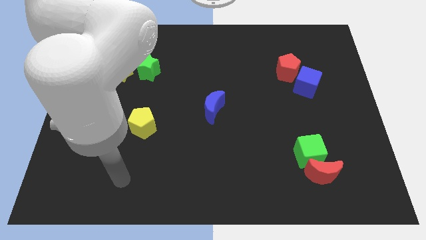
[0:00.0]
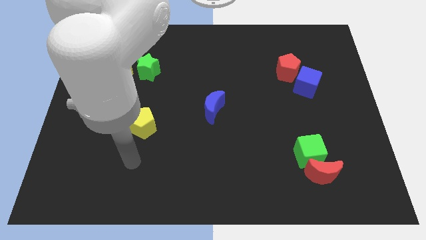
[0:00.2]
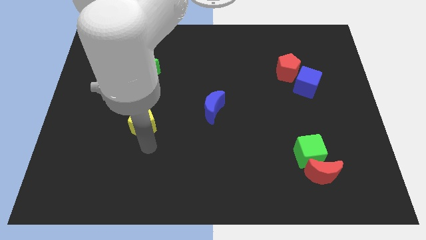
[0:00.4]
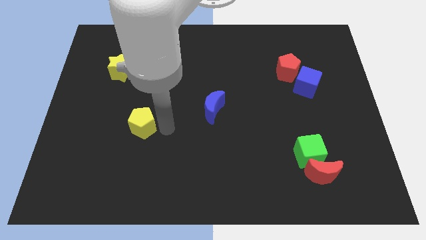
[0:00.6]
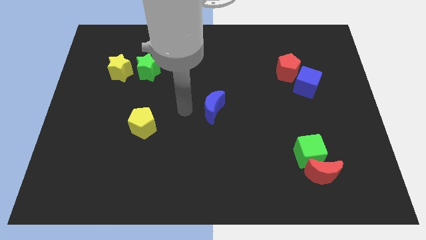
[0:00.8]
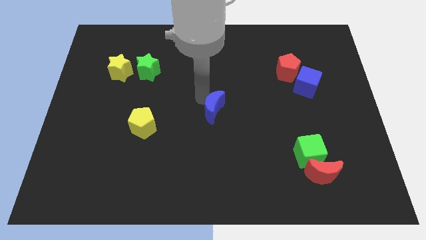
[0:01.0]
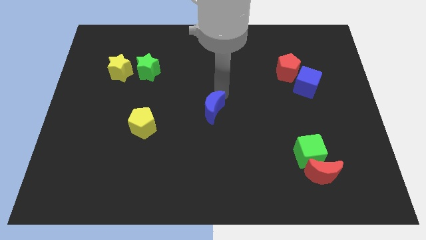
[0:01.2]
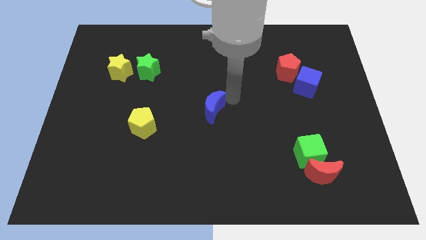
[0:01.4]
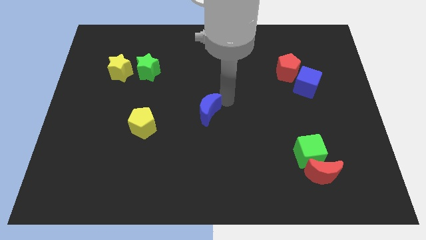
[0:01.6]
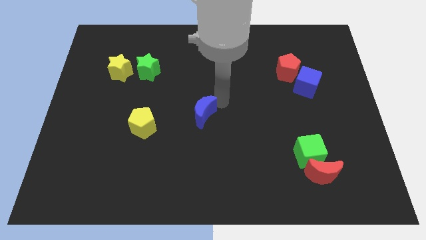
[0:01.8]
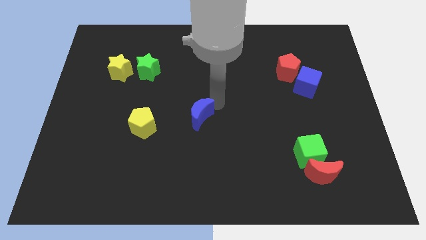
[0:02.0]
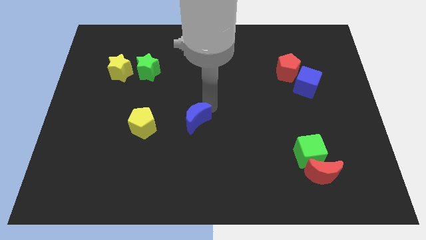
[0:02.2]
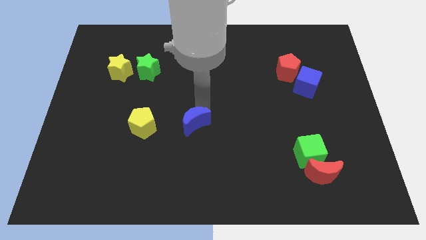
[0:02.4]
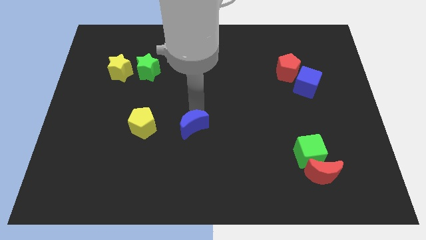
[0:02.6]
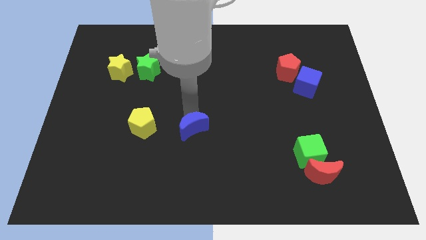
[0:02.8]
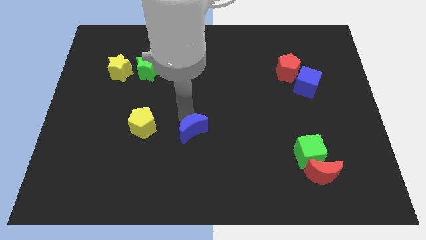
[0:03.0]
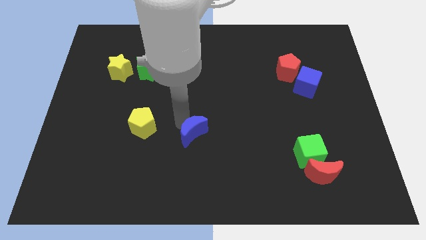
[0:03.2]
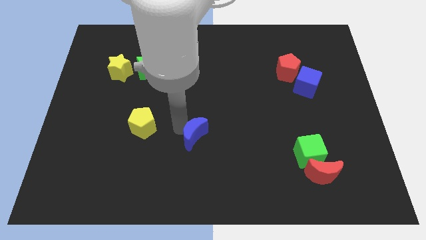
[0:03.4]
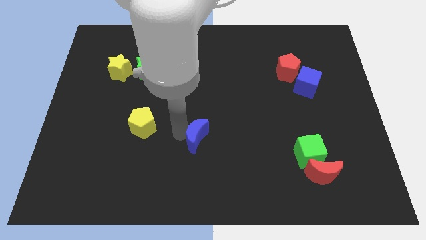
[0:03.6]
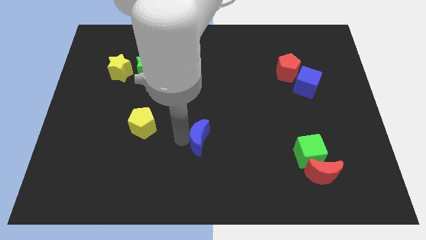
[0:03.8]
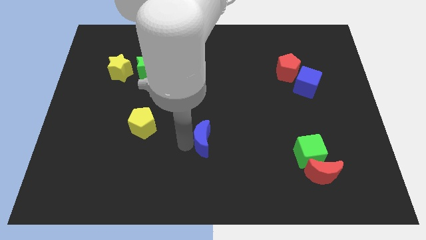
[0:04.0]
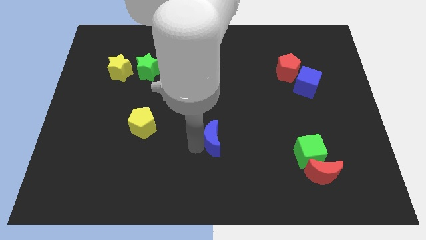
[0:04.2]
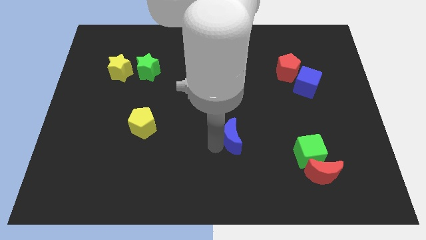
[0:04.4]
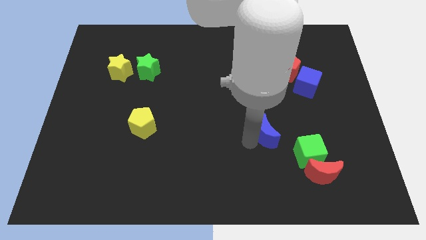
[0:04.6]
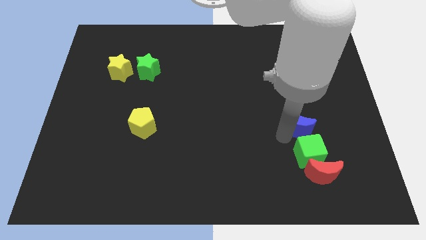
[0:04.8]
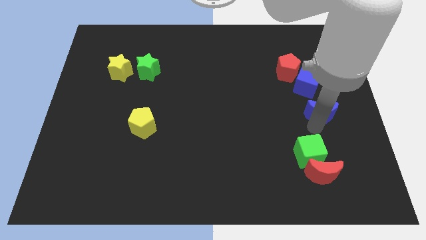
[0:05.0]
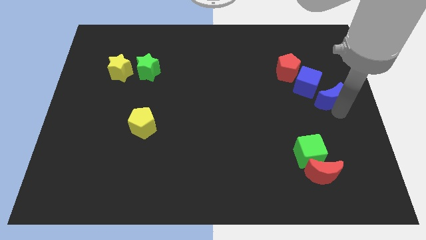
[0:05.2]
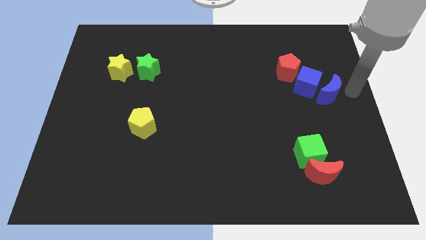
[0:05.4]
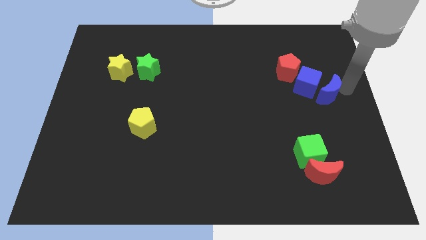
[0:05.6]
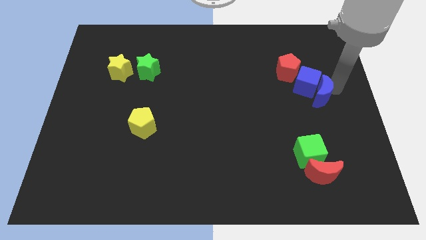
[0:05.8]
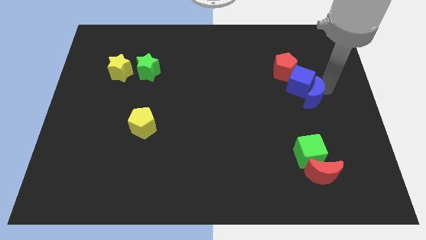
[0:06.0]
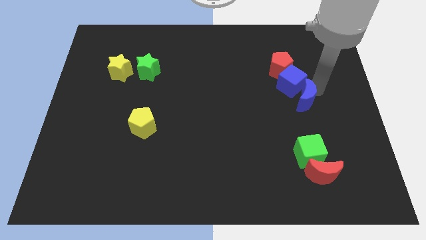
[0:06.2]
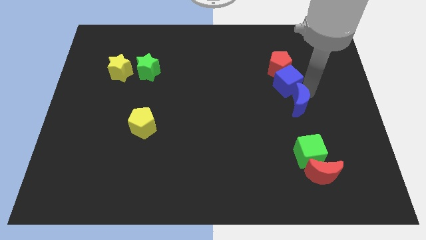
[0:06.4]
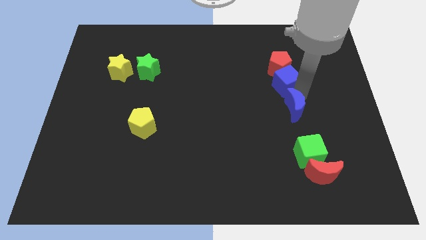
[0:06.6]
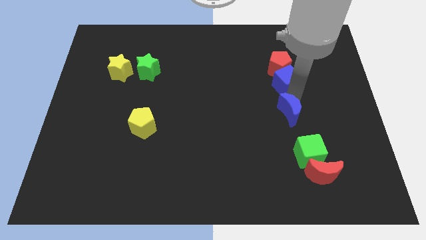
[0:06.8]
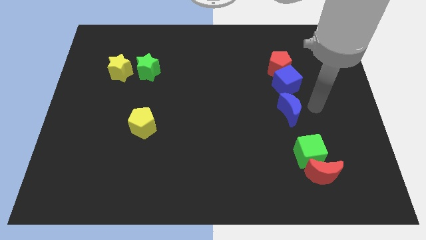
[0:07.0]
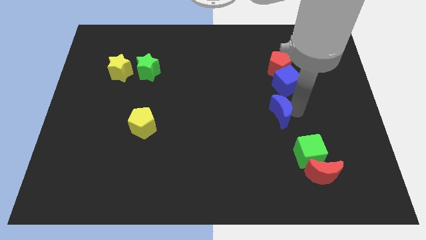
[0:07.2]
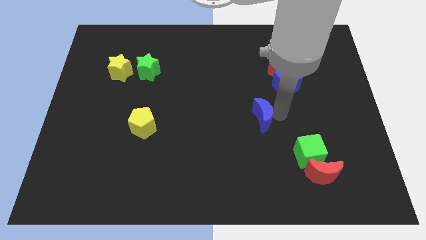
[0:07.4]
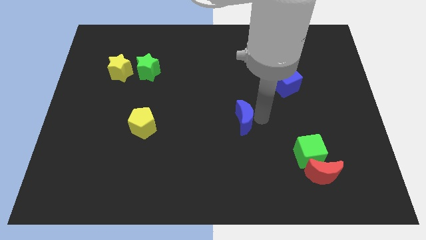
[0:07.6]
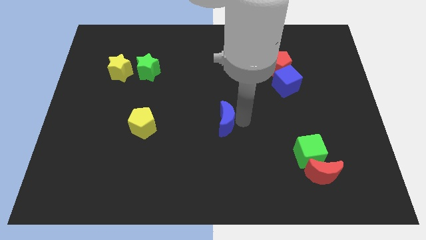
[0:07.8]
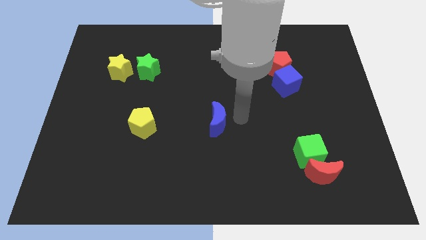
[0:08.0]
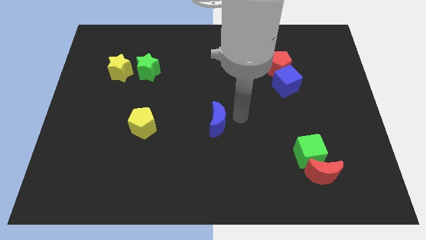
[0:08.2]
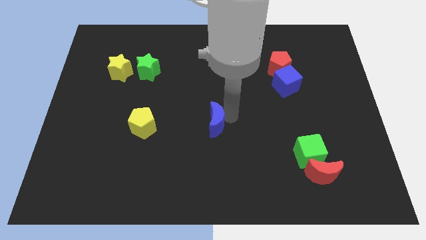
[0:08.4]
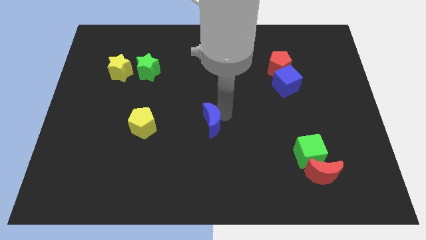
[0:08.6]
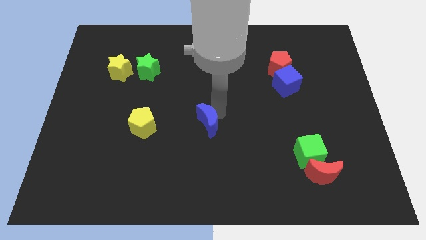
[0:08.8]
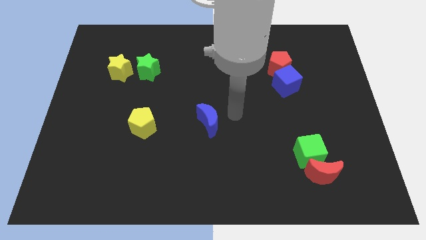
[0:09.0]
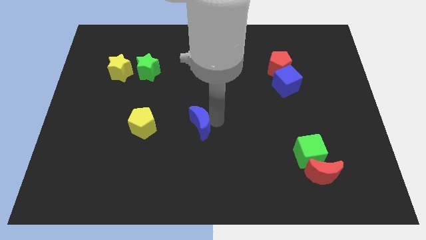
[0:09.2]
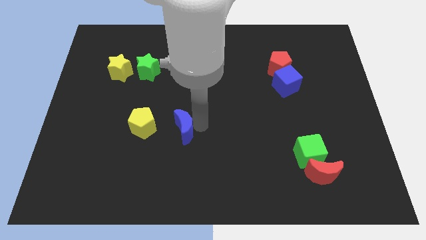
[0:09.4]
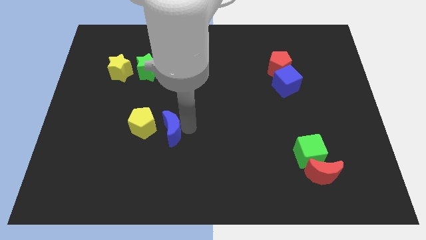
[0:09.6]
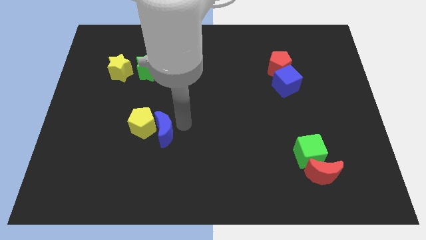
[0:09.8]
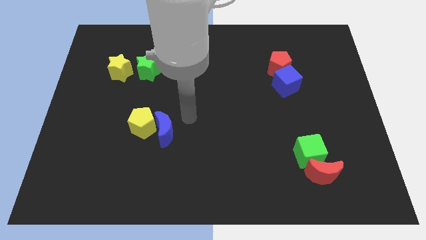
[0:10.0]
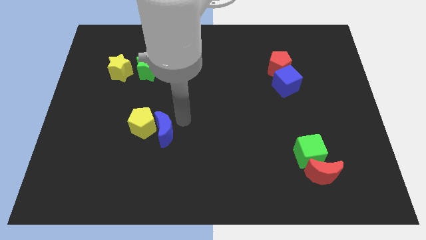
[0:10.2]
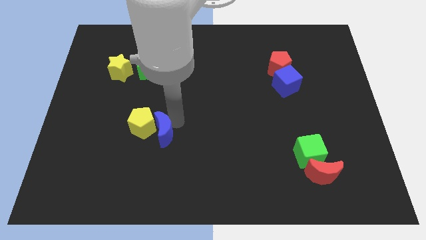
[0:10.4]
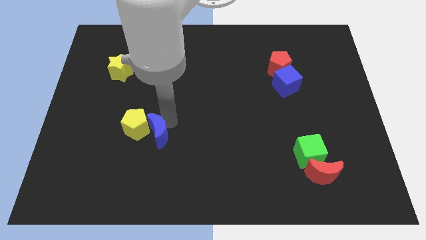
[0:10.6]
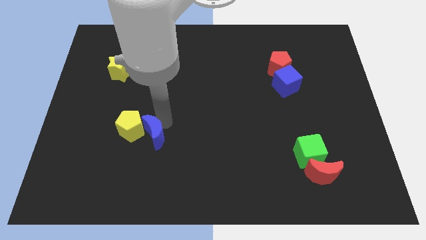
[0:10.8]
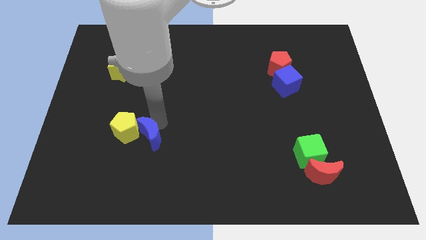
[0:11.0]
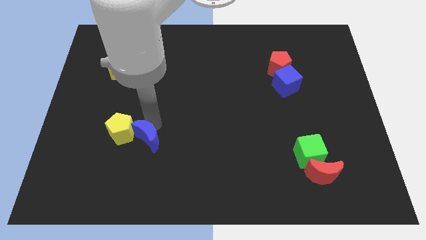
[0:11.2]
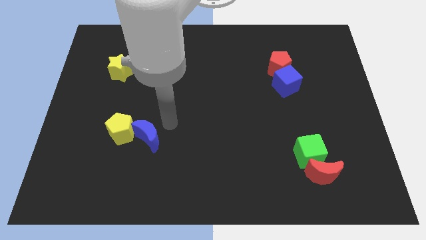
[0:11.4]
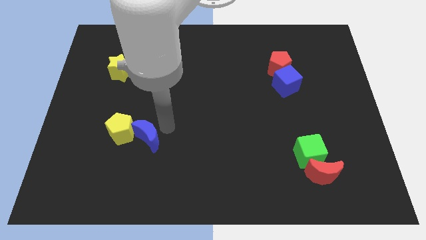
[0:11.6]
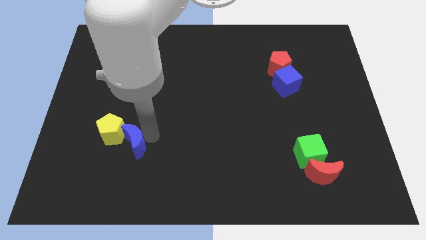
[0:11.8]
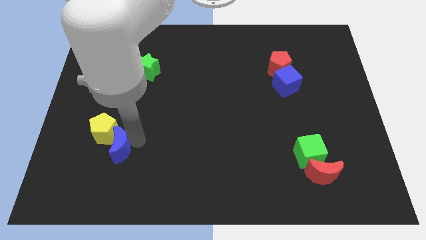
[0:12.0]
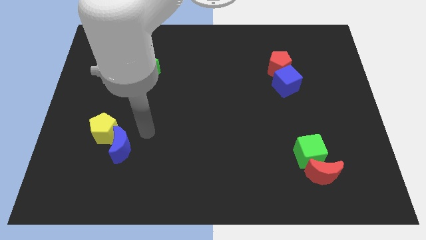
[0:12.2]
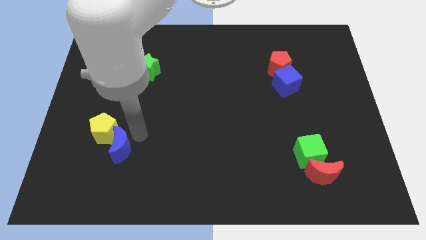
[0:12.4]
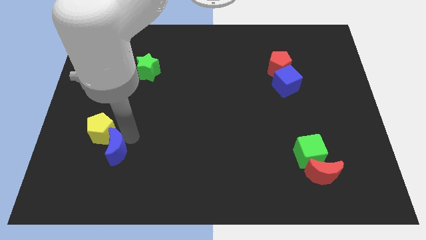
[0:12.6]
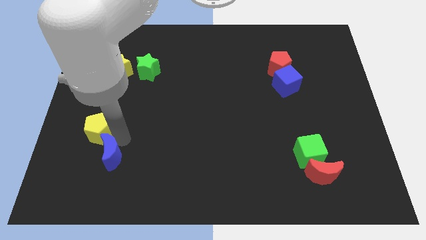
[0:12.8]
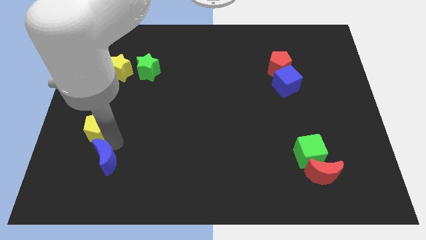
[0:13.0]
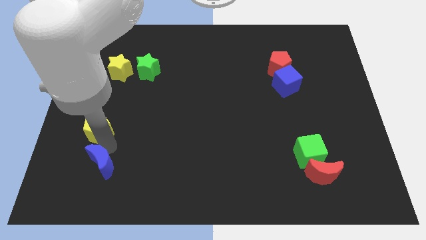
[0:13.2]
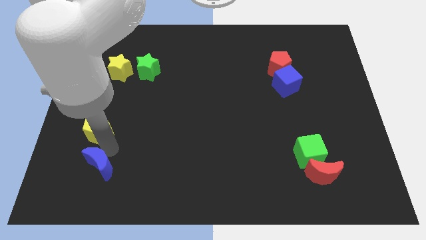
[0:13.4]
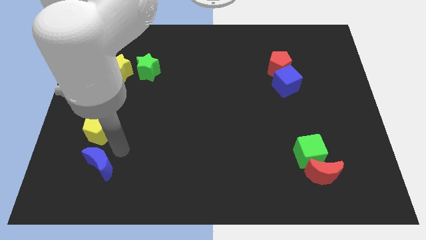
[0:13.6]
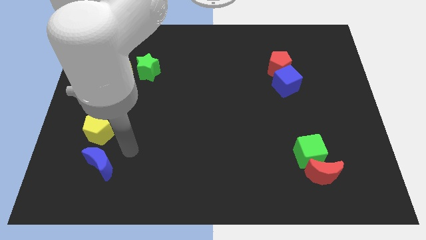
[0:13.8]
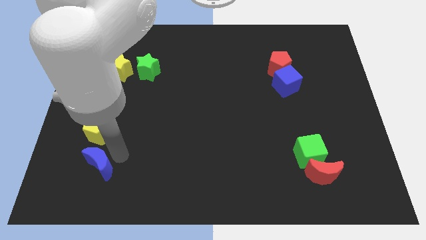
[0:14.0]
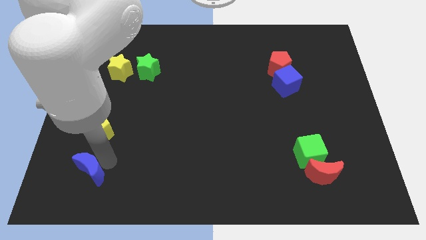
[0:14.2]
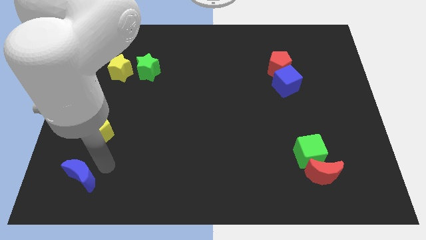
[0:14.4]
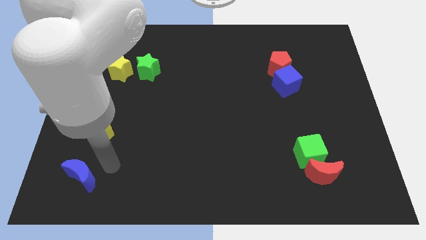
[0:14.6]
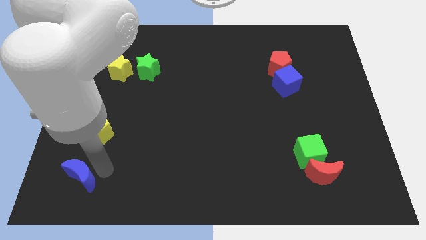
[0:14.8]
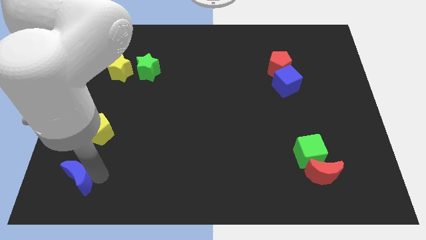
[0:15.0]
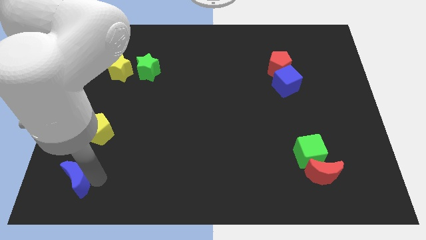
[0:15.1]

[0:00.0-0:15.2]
put the blue moon to the bottom left
